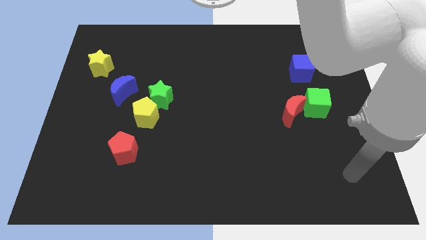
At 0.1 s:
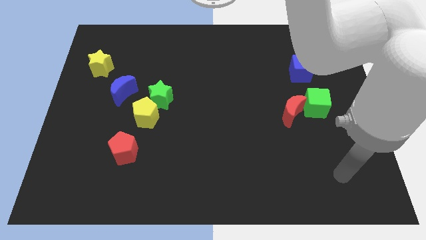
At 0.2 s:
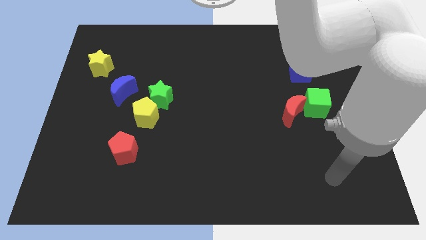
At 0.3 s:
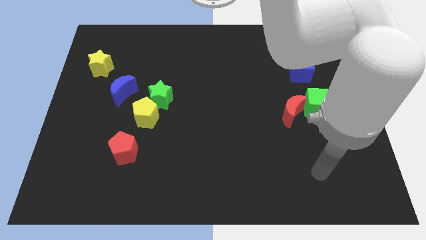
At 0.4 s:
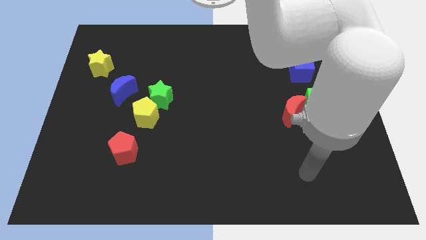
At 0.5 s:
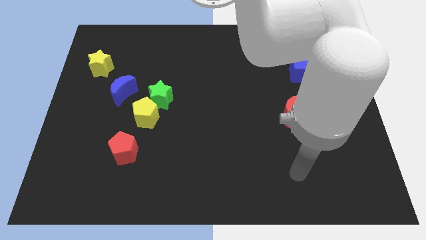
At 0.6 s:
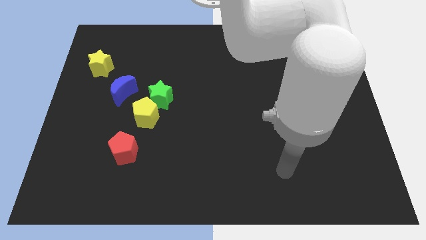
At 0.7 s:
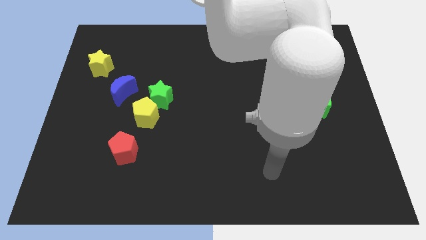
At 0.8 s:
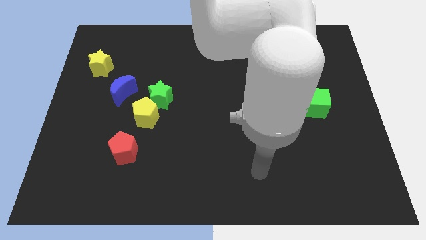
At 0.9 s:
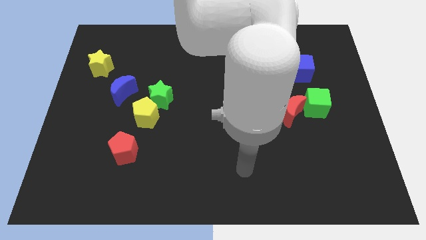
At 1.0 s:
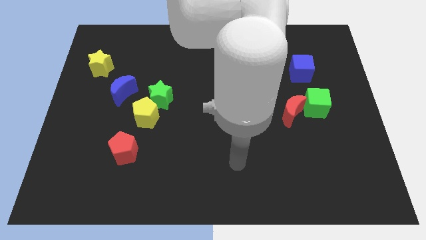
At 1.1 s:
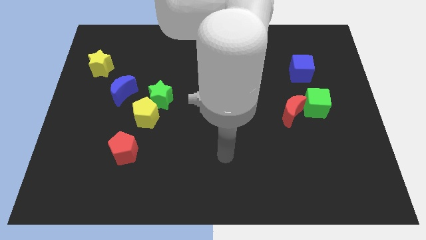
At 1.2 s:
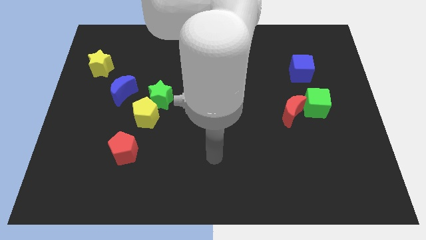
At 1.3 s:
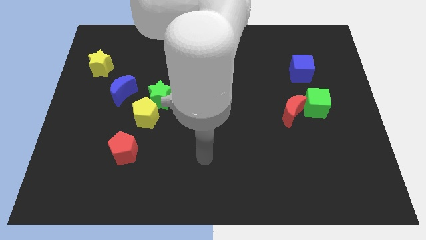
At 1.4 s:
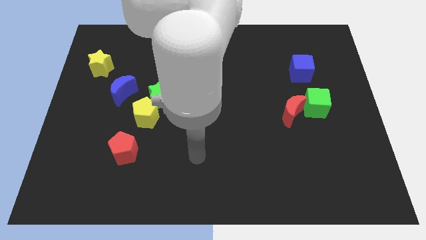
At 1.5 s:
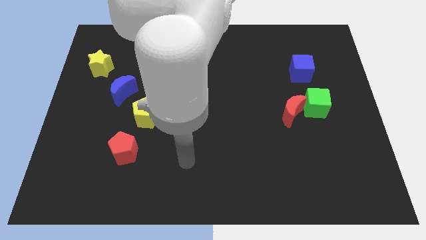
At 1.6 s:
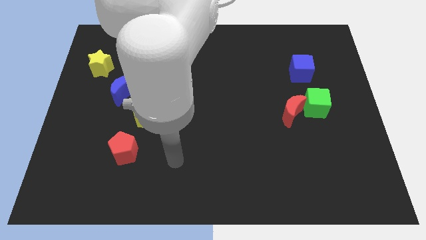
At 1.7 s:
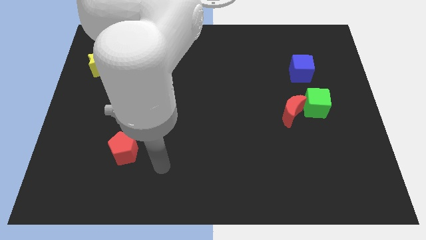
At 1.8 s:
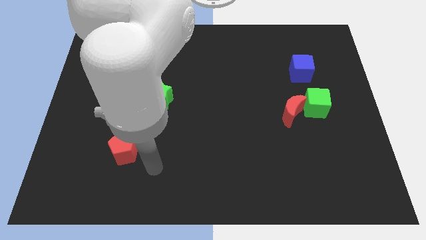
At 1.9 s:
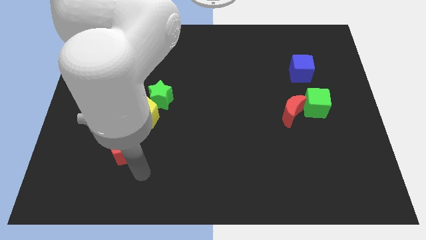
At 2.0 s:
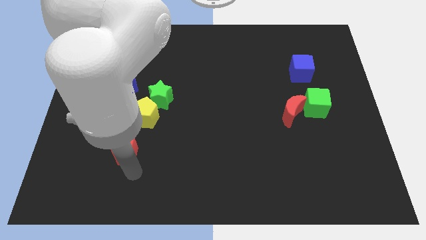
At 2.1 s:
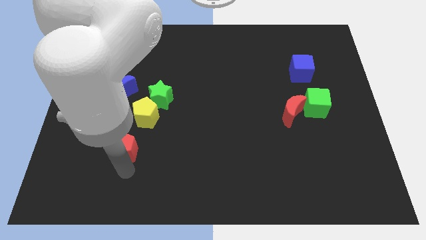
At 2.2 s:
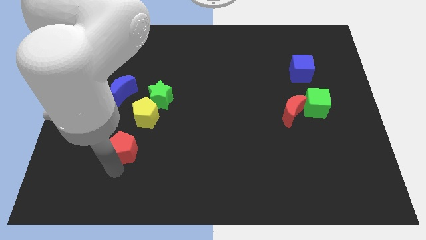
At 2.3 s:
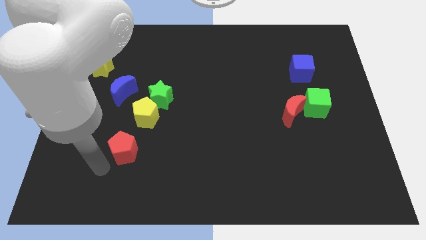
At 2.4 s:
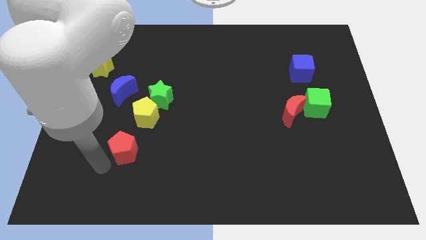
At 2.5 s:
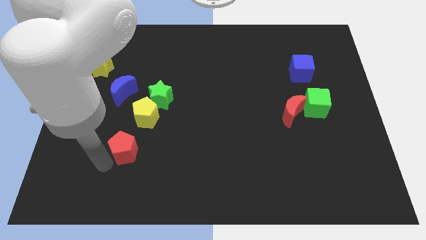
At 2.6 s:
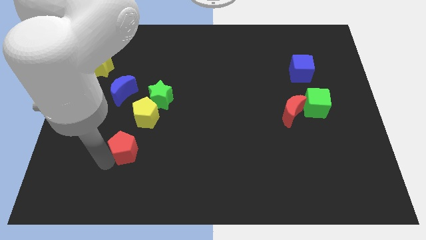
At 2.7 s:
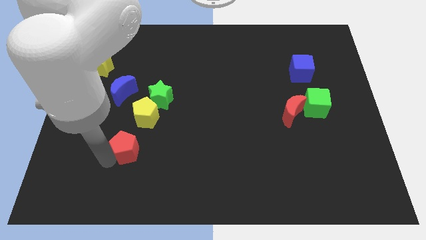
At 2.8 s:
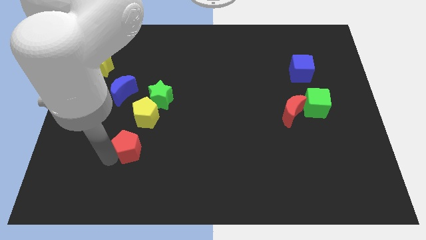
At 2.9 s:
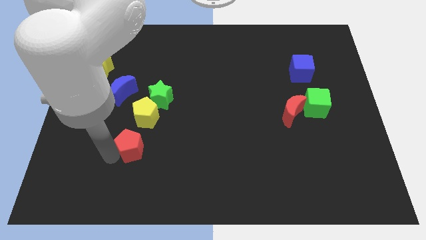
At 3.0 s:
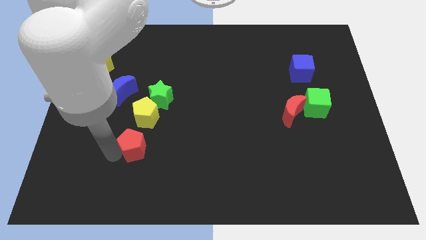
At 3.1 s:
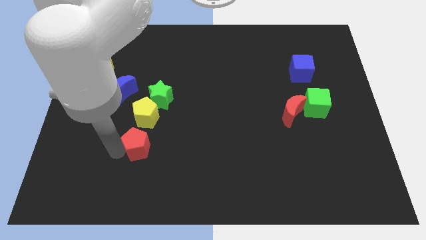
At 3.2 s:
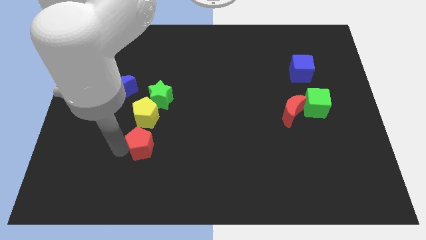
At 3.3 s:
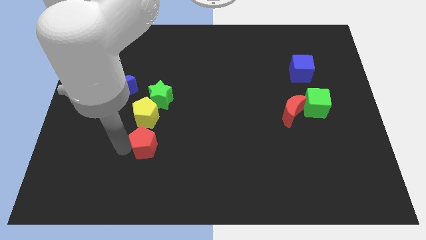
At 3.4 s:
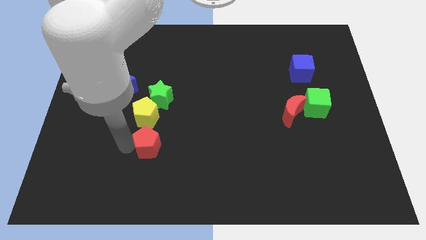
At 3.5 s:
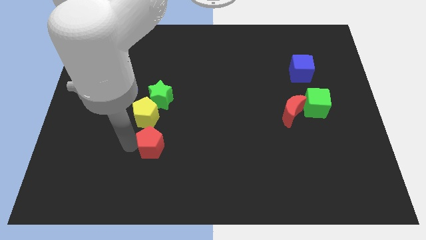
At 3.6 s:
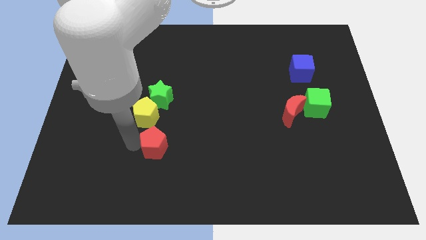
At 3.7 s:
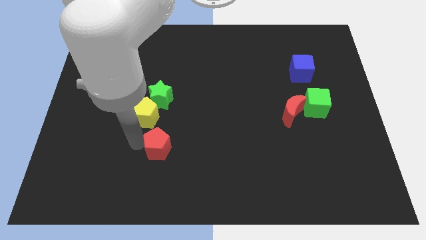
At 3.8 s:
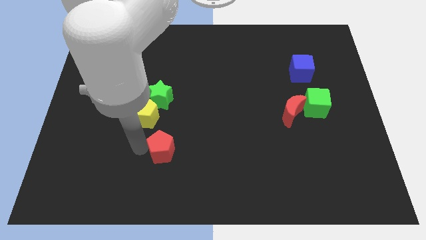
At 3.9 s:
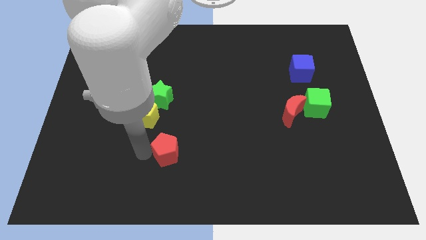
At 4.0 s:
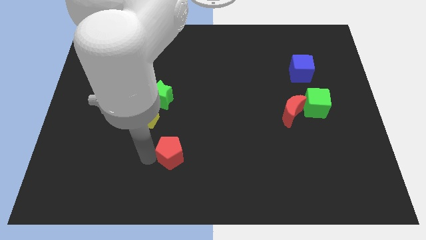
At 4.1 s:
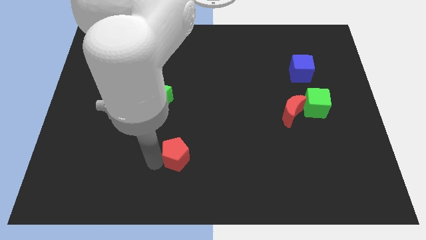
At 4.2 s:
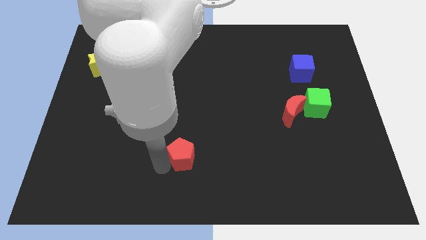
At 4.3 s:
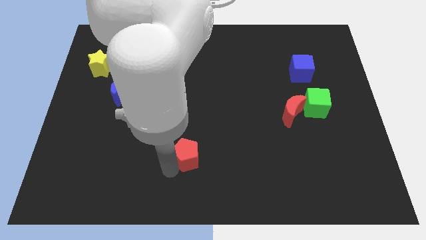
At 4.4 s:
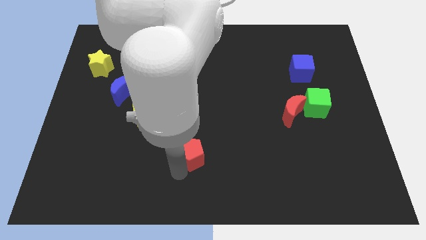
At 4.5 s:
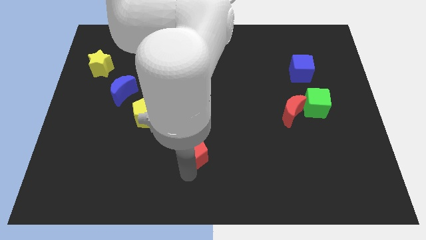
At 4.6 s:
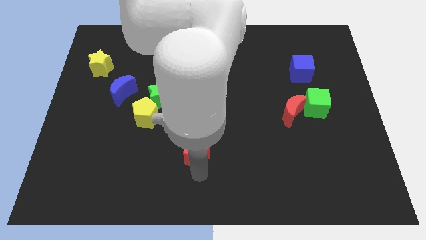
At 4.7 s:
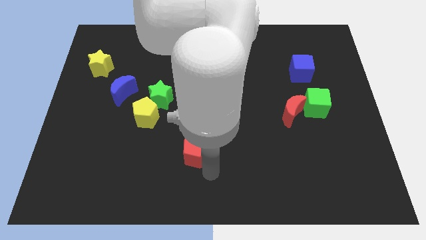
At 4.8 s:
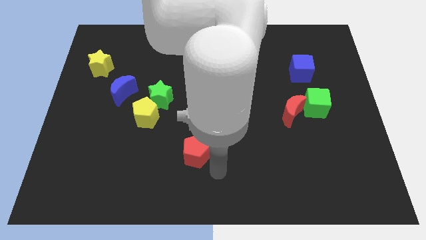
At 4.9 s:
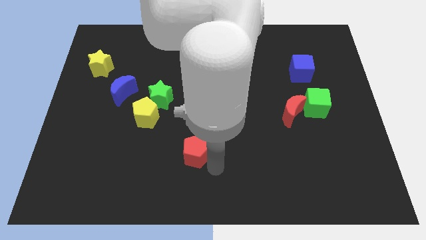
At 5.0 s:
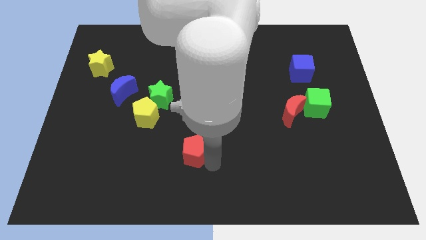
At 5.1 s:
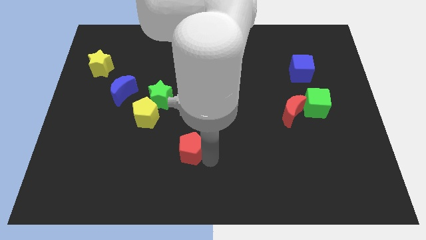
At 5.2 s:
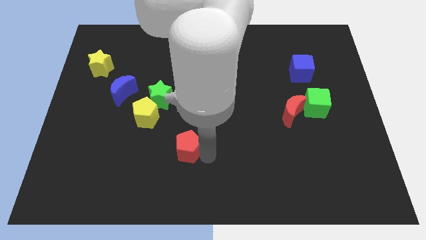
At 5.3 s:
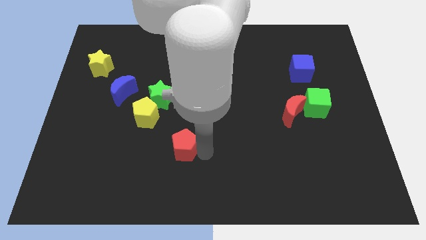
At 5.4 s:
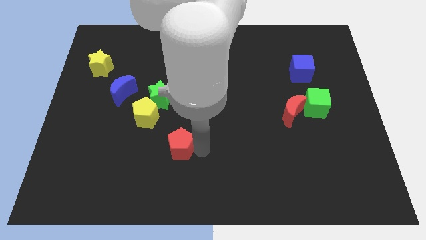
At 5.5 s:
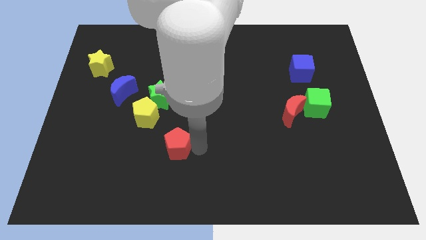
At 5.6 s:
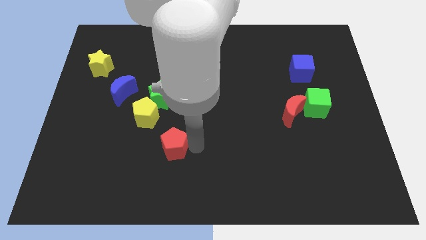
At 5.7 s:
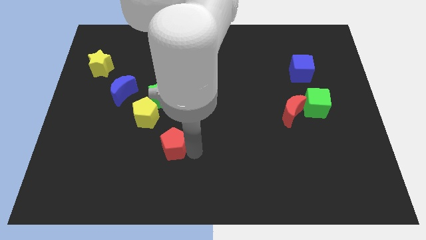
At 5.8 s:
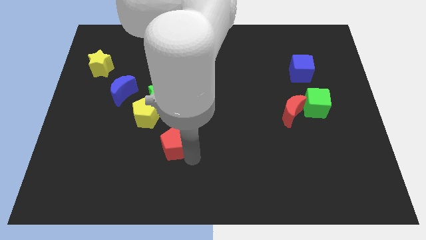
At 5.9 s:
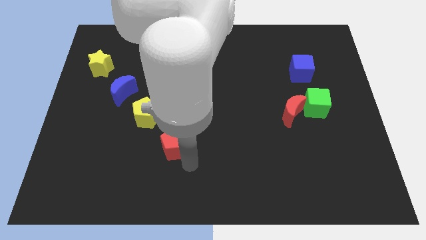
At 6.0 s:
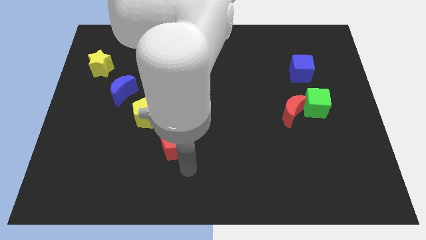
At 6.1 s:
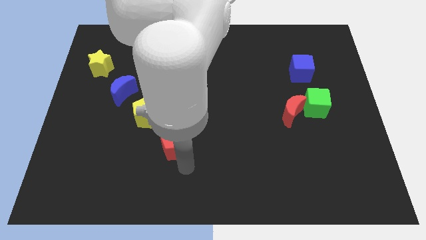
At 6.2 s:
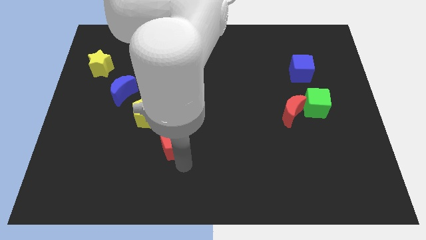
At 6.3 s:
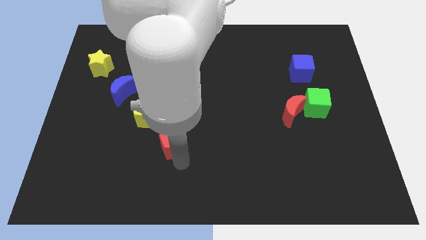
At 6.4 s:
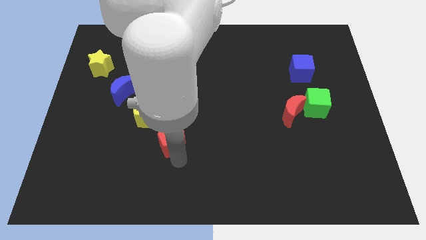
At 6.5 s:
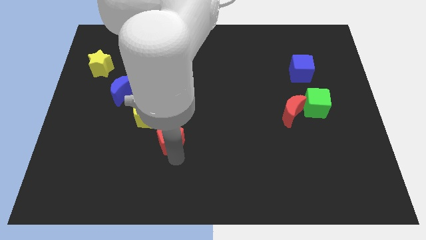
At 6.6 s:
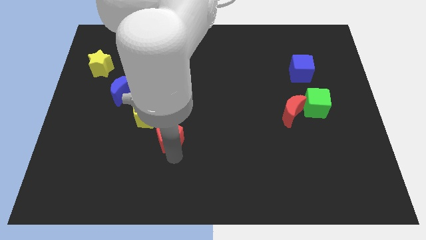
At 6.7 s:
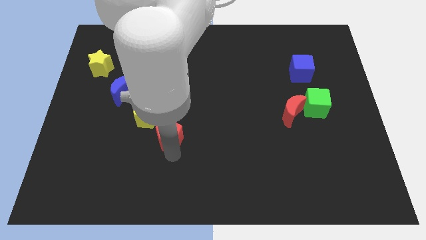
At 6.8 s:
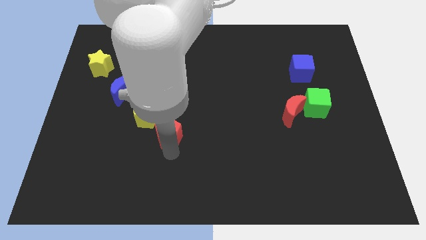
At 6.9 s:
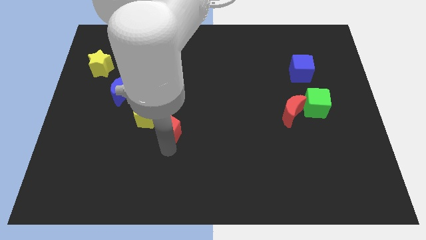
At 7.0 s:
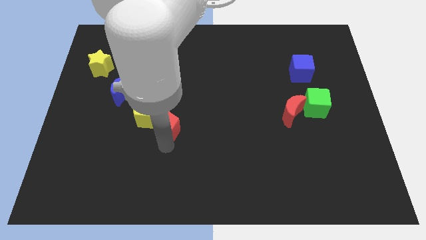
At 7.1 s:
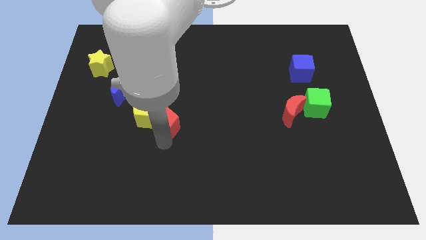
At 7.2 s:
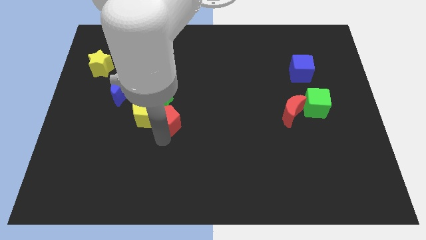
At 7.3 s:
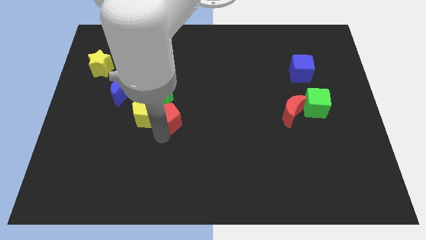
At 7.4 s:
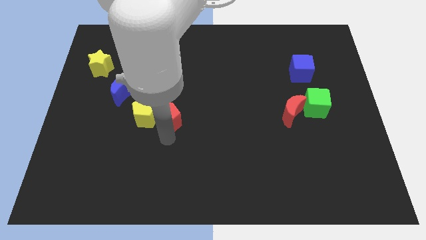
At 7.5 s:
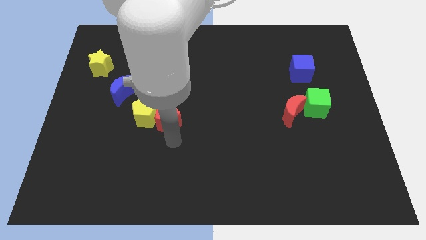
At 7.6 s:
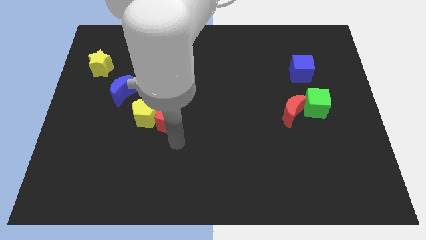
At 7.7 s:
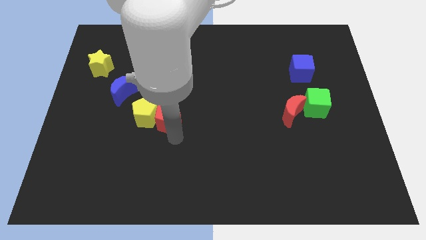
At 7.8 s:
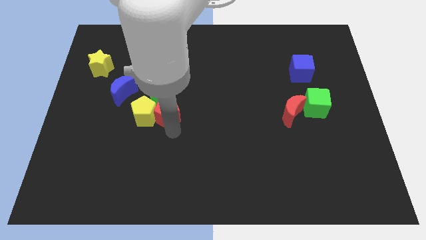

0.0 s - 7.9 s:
slide the red pentagon towards the green star
